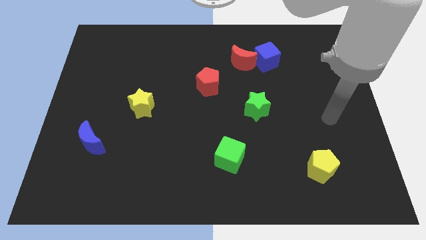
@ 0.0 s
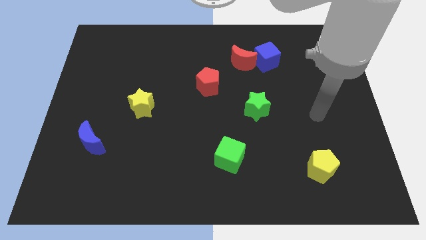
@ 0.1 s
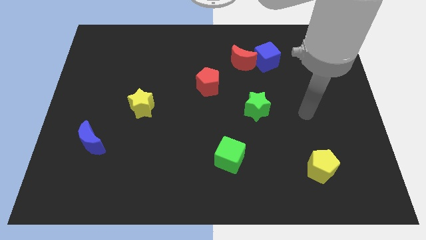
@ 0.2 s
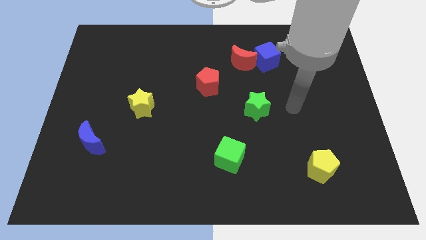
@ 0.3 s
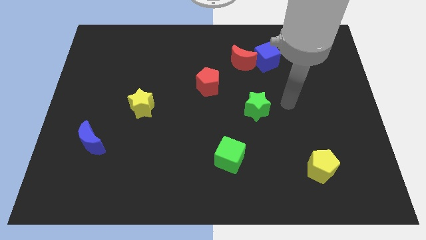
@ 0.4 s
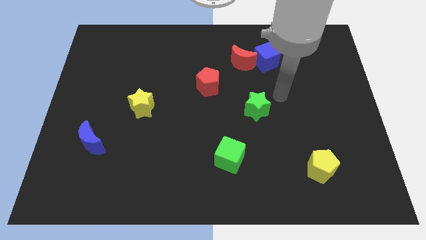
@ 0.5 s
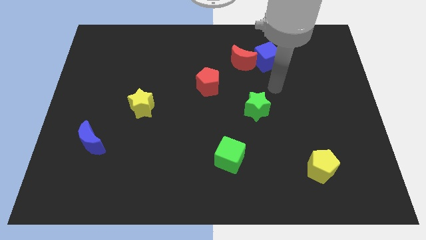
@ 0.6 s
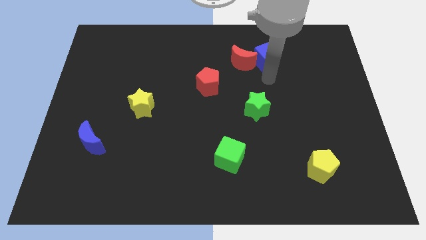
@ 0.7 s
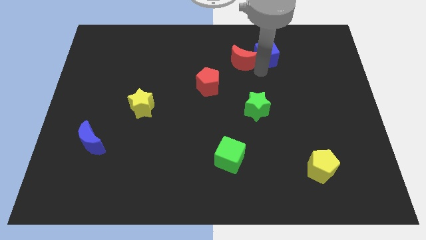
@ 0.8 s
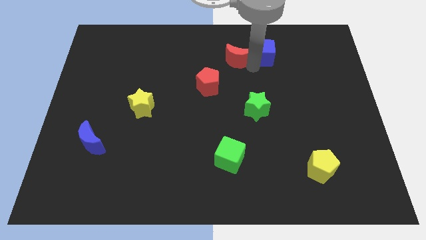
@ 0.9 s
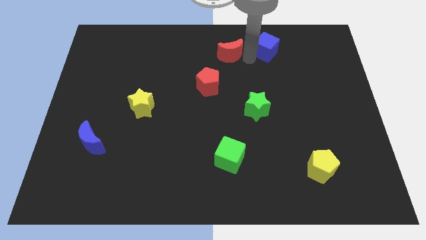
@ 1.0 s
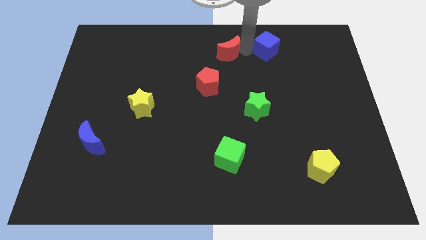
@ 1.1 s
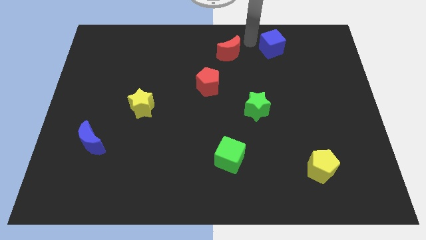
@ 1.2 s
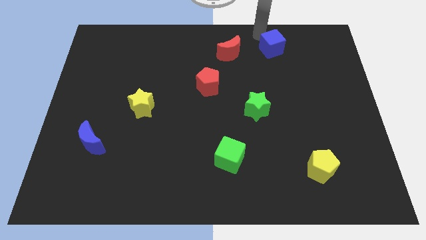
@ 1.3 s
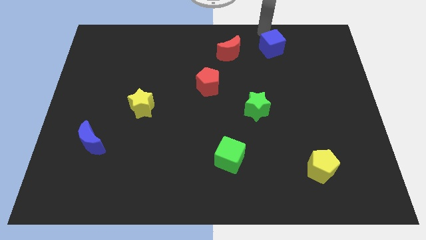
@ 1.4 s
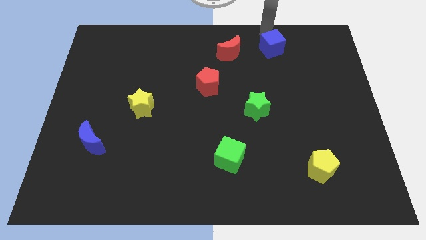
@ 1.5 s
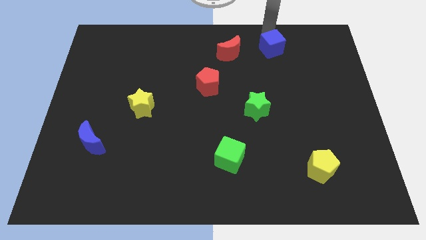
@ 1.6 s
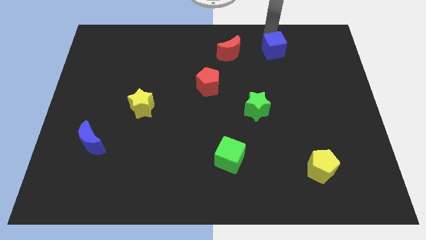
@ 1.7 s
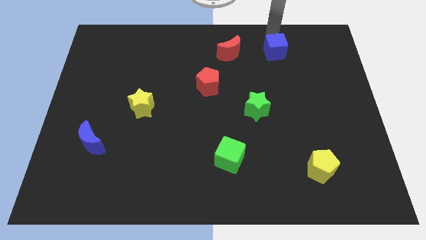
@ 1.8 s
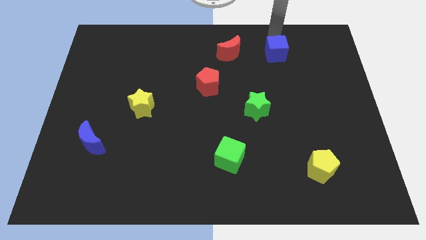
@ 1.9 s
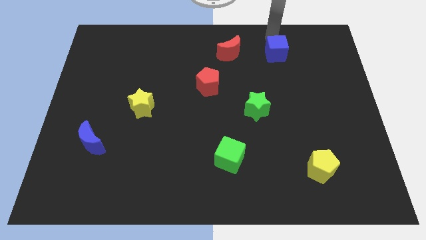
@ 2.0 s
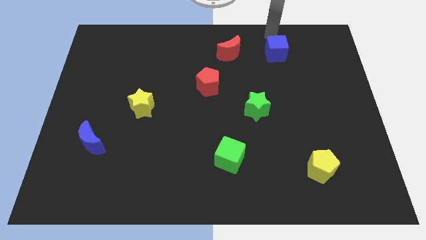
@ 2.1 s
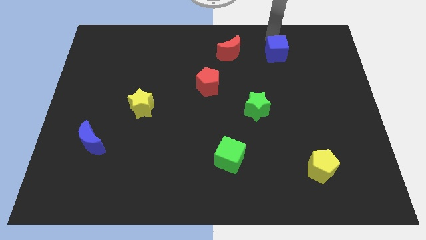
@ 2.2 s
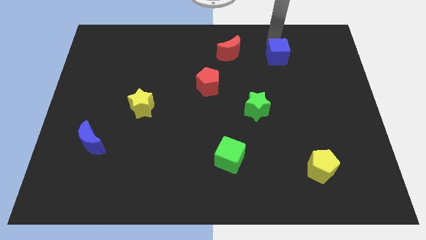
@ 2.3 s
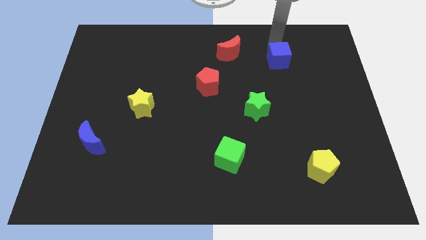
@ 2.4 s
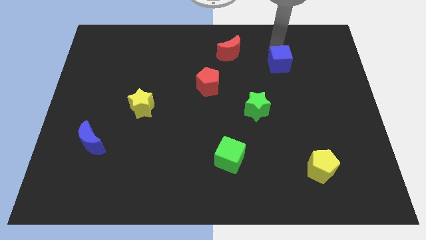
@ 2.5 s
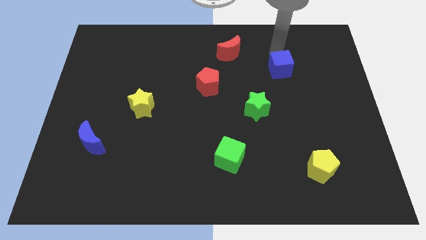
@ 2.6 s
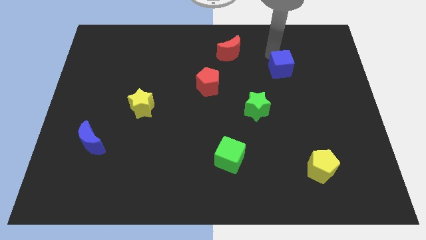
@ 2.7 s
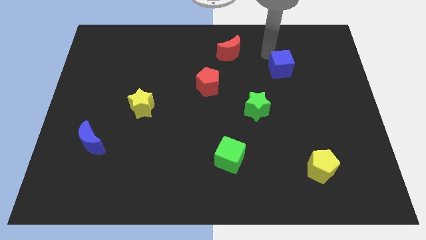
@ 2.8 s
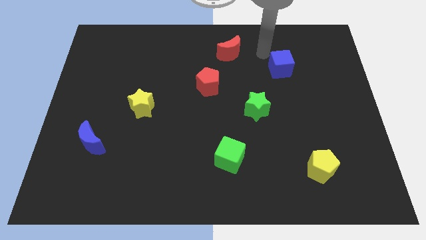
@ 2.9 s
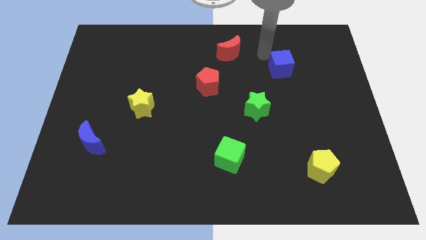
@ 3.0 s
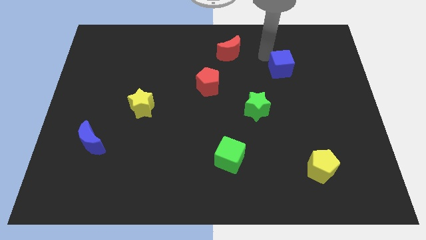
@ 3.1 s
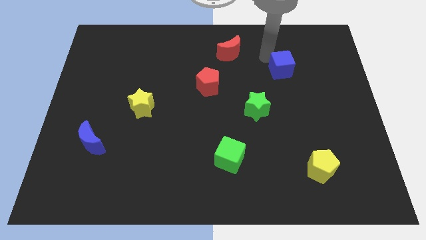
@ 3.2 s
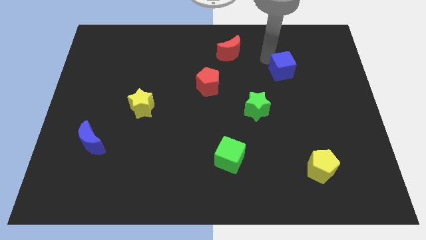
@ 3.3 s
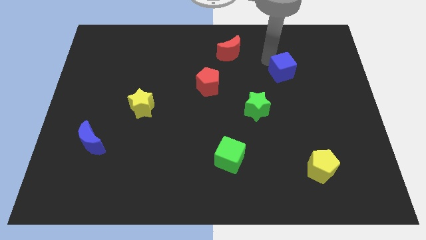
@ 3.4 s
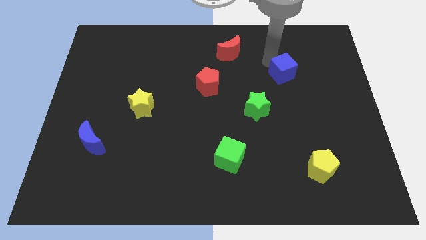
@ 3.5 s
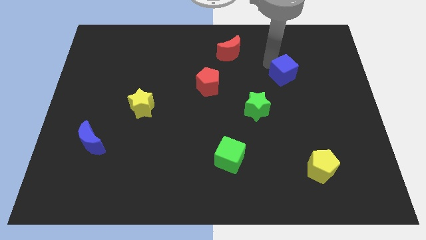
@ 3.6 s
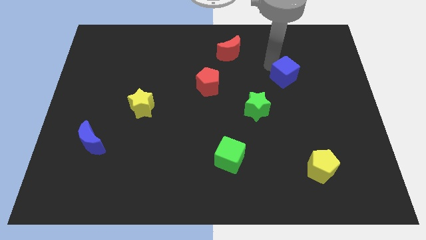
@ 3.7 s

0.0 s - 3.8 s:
slide the blue cube down and then to the right a bit

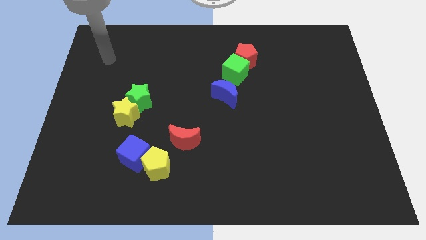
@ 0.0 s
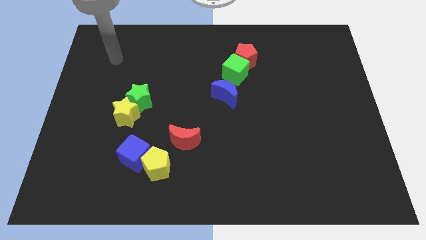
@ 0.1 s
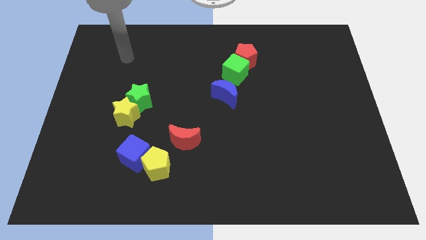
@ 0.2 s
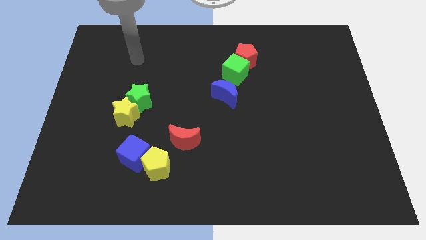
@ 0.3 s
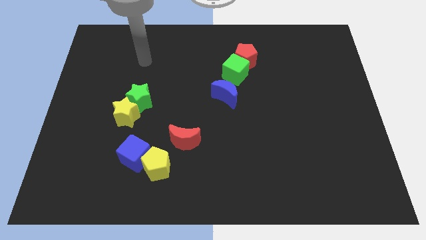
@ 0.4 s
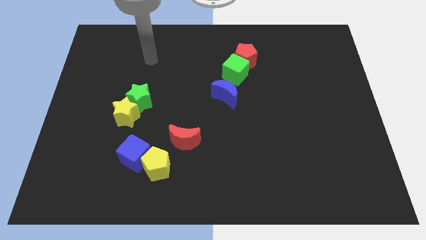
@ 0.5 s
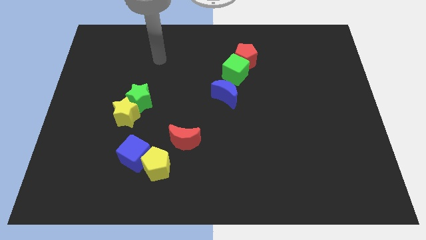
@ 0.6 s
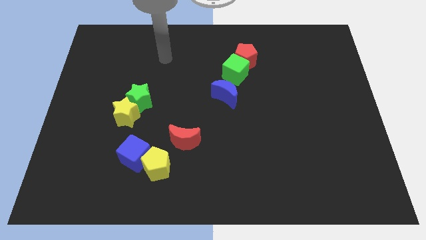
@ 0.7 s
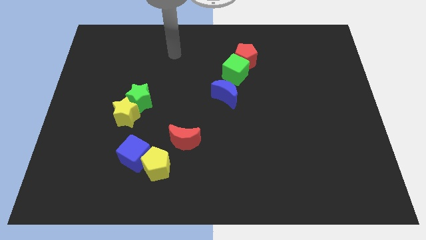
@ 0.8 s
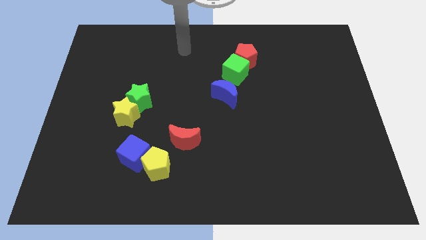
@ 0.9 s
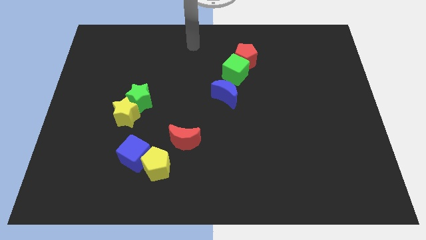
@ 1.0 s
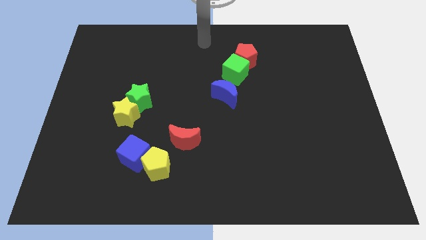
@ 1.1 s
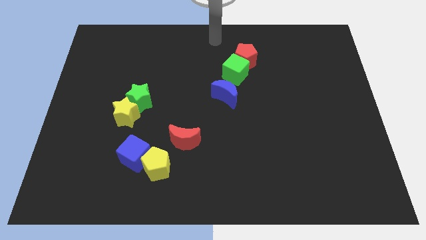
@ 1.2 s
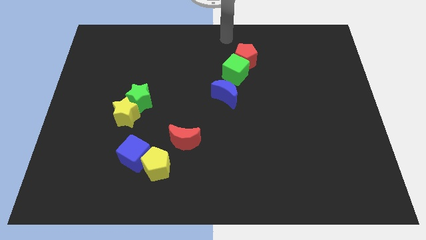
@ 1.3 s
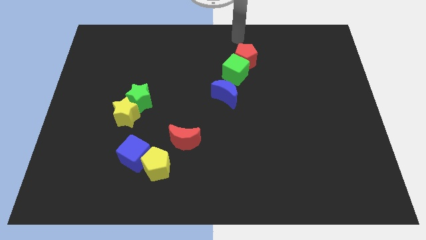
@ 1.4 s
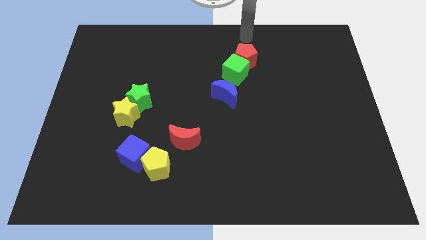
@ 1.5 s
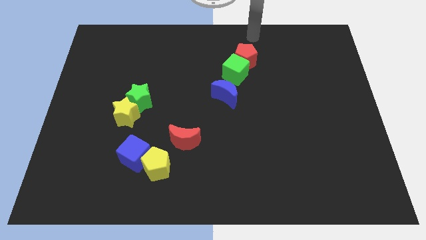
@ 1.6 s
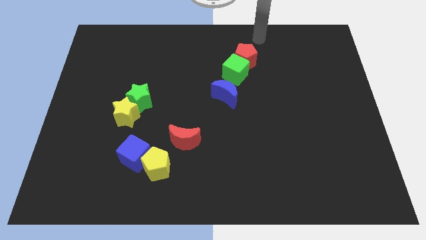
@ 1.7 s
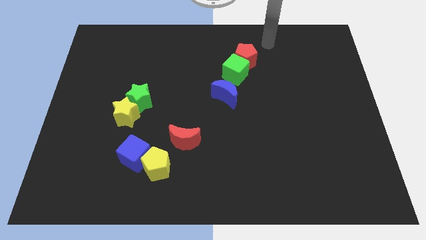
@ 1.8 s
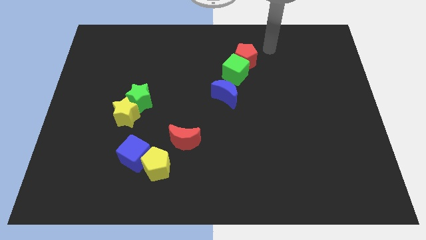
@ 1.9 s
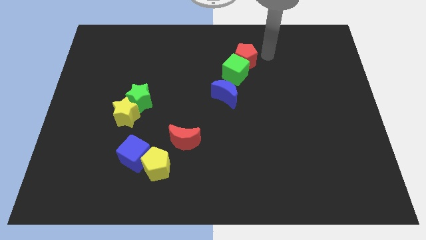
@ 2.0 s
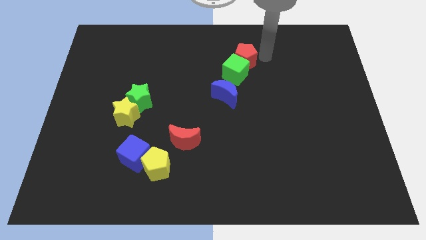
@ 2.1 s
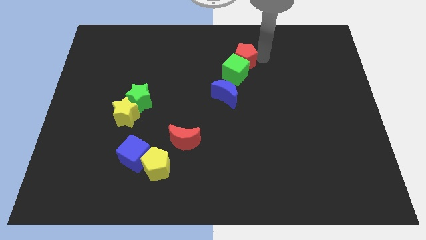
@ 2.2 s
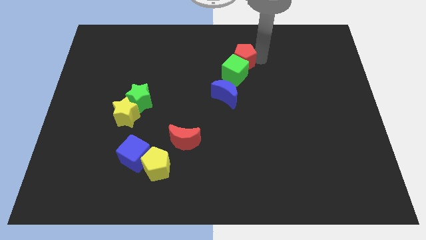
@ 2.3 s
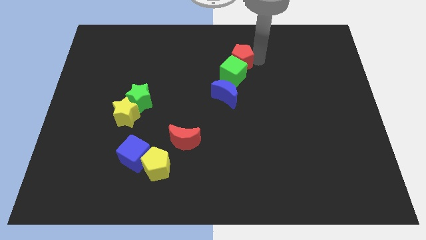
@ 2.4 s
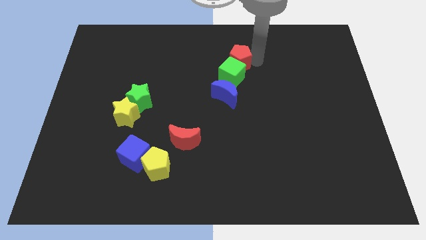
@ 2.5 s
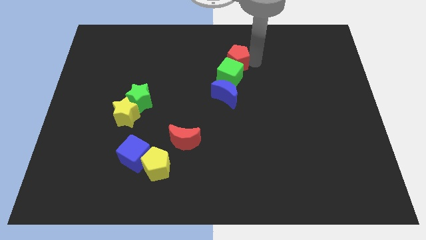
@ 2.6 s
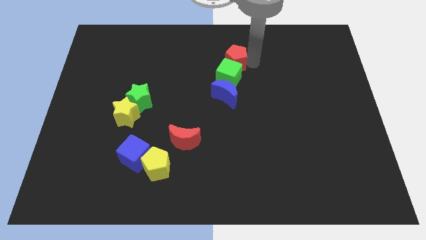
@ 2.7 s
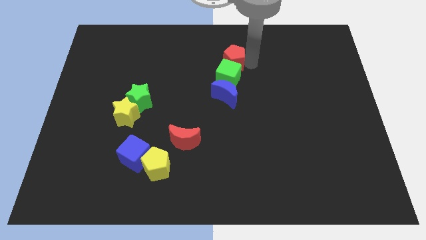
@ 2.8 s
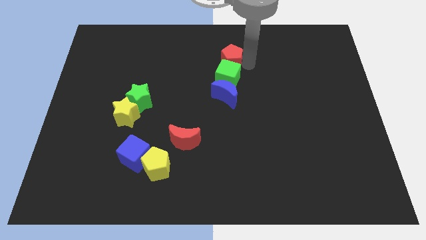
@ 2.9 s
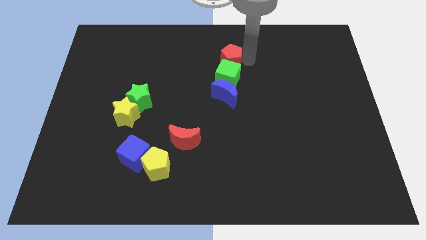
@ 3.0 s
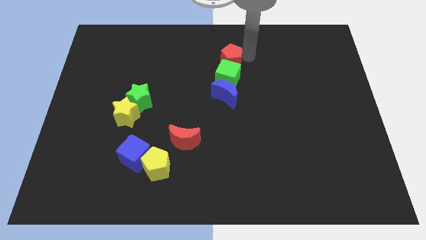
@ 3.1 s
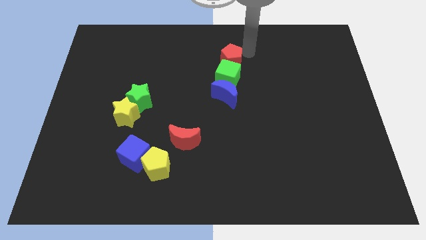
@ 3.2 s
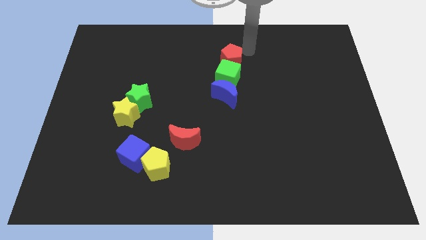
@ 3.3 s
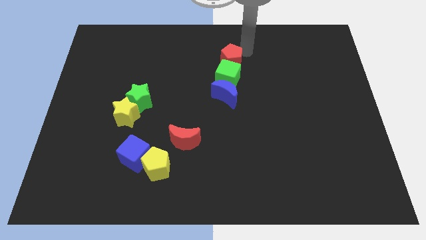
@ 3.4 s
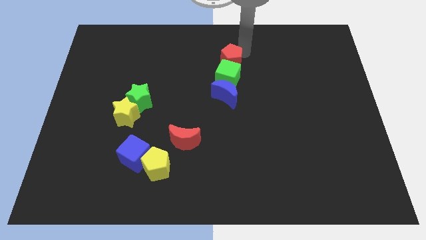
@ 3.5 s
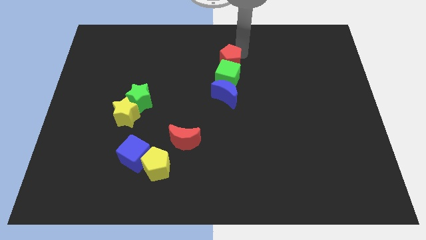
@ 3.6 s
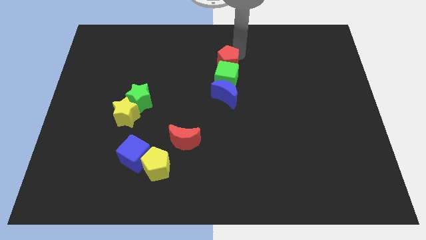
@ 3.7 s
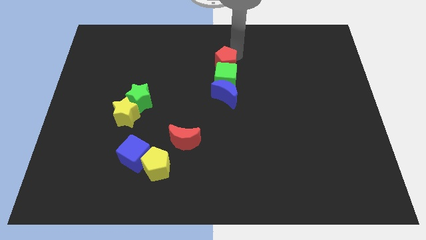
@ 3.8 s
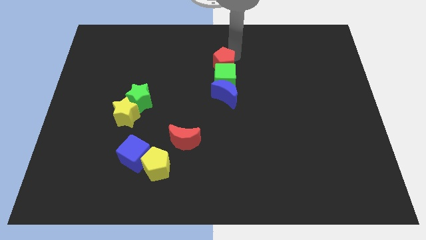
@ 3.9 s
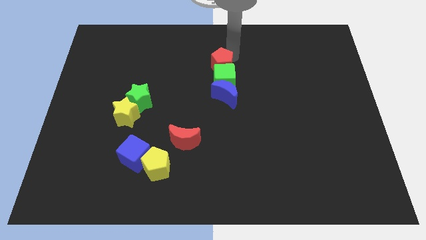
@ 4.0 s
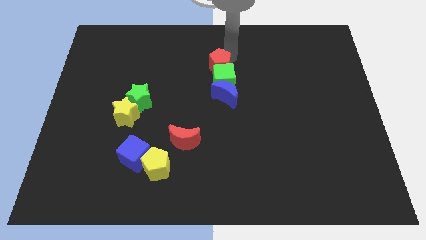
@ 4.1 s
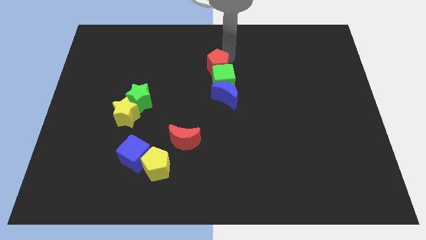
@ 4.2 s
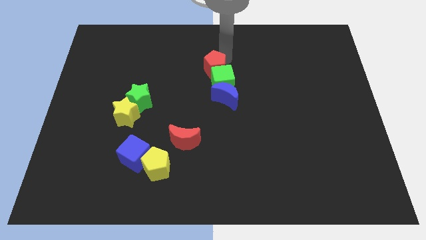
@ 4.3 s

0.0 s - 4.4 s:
slightly push the red pentagon down and to the left diagonally
